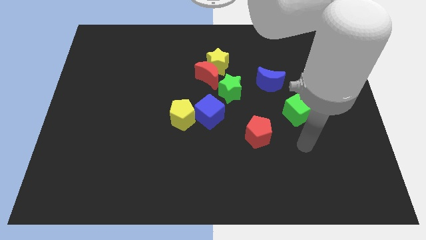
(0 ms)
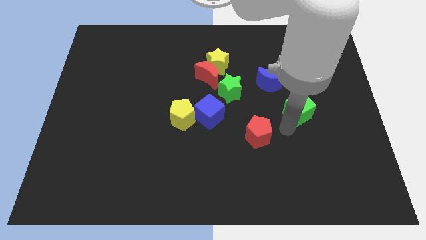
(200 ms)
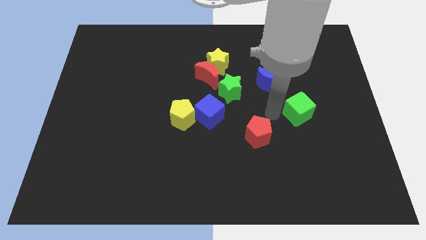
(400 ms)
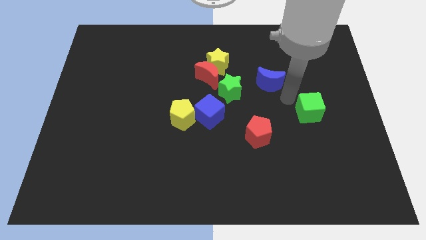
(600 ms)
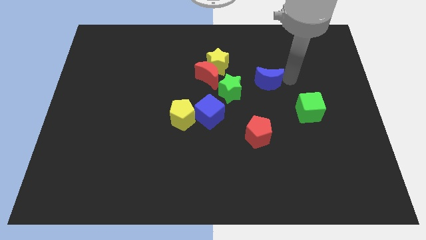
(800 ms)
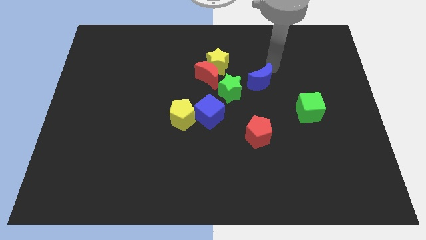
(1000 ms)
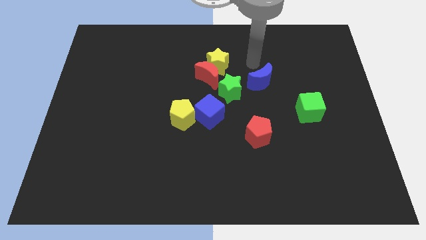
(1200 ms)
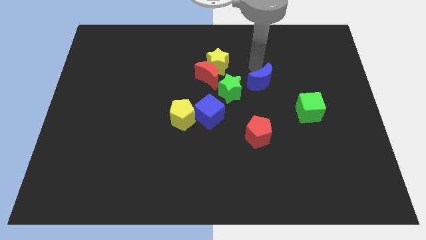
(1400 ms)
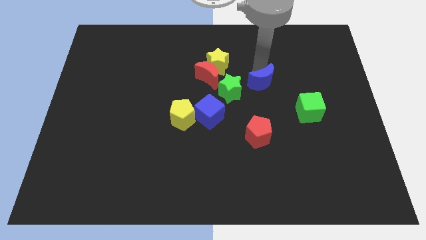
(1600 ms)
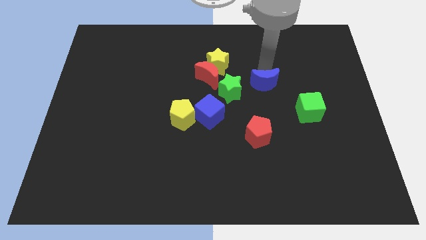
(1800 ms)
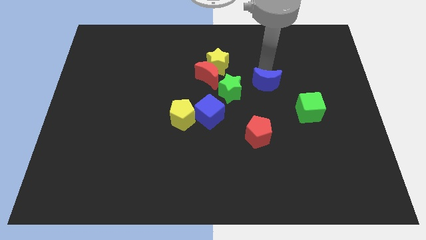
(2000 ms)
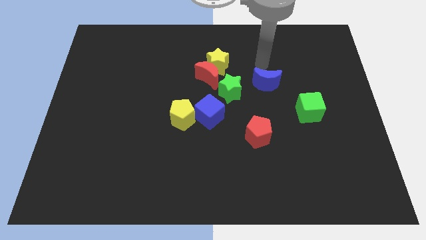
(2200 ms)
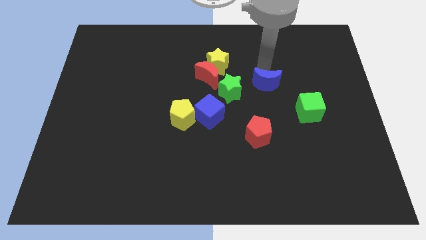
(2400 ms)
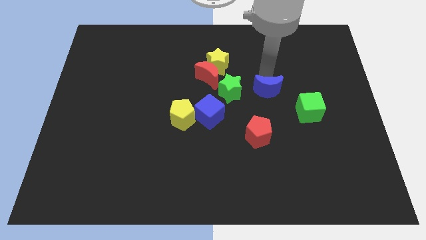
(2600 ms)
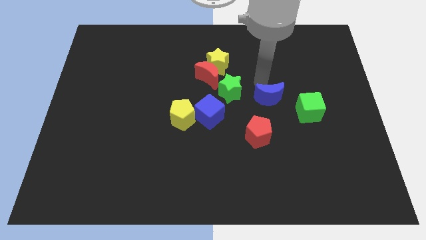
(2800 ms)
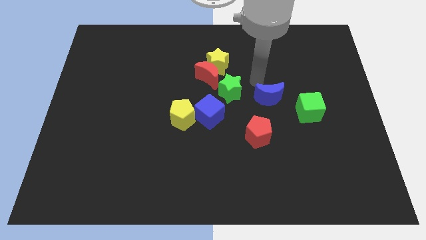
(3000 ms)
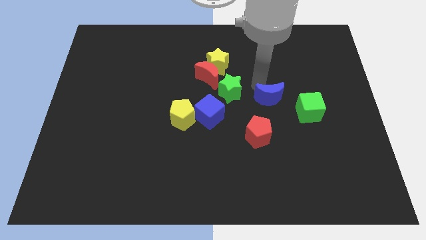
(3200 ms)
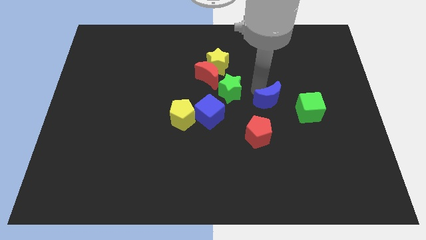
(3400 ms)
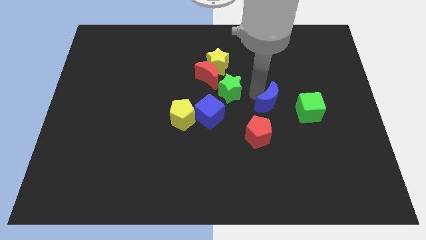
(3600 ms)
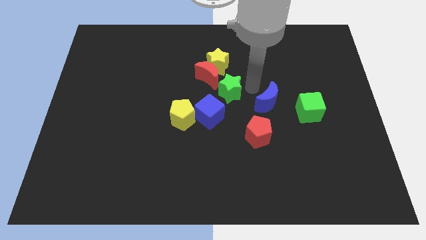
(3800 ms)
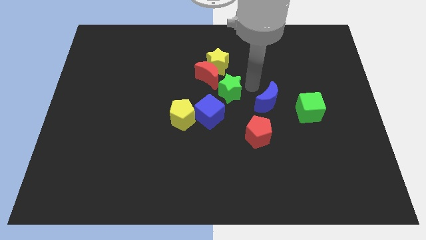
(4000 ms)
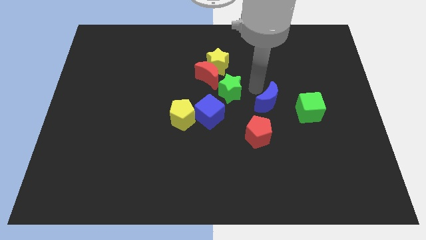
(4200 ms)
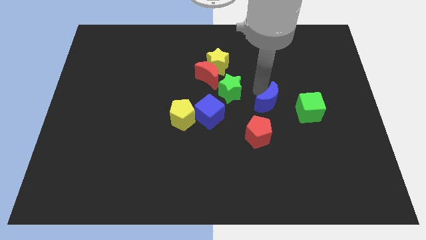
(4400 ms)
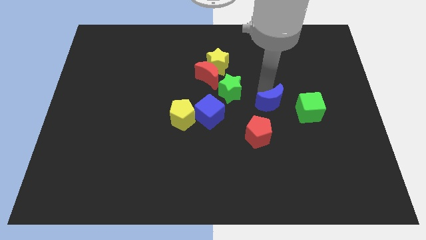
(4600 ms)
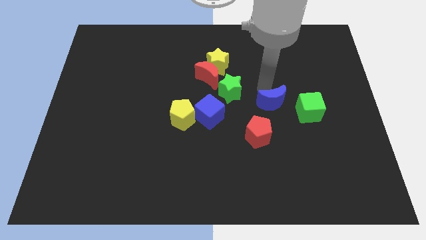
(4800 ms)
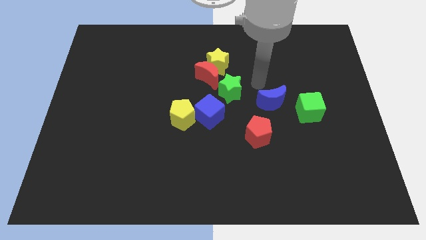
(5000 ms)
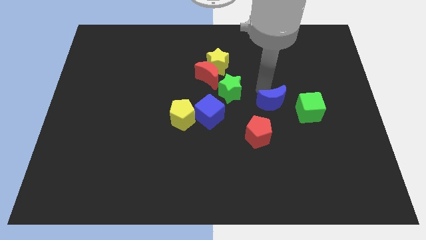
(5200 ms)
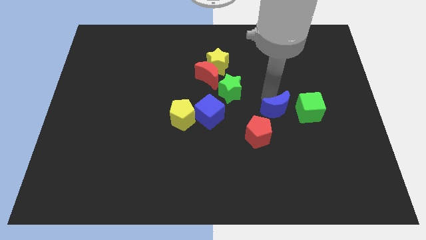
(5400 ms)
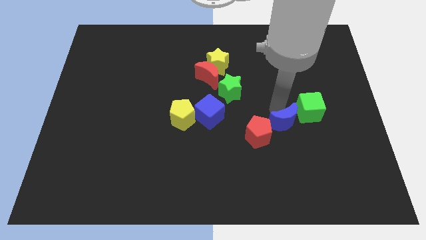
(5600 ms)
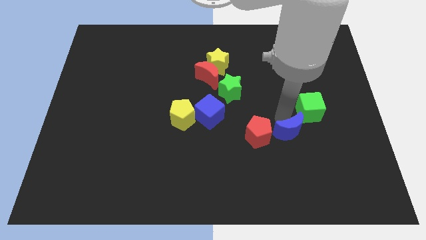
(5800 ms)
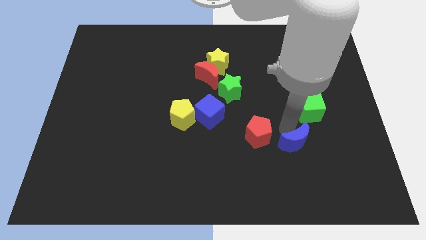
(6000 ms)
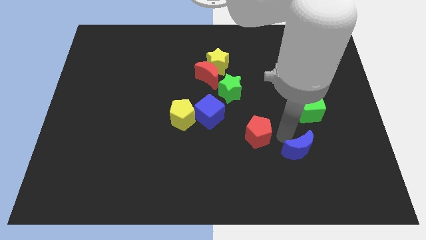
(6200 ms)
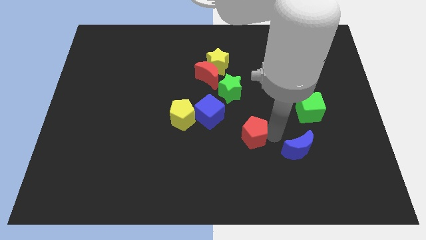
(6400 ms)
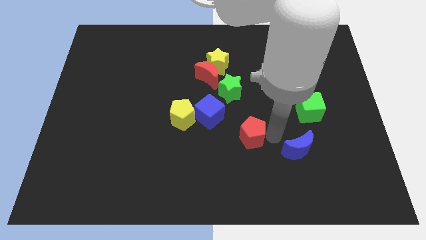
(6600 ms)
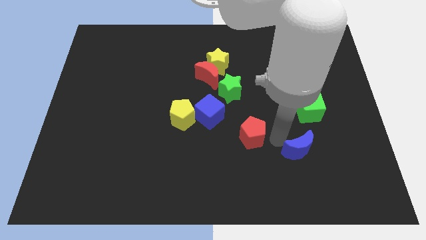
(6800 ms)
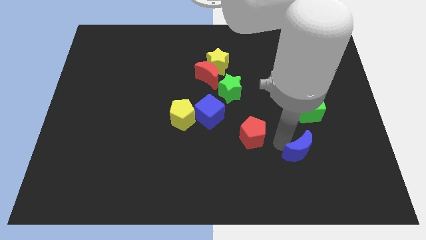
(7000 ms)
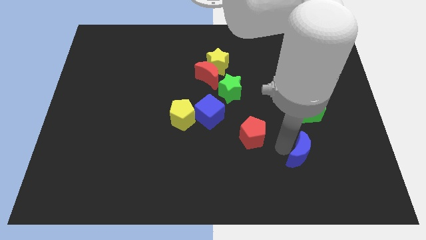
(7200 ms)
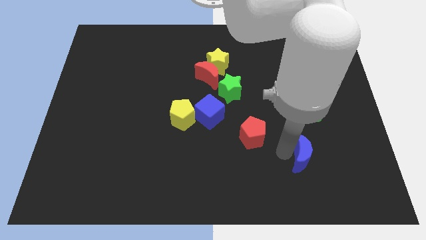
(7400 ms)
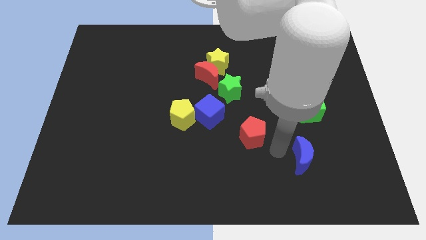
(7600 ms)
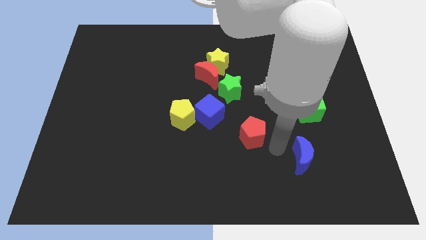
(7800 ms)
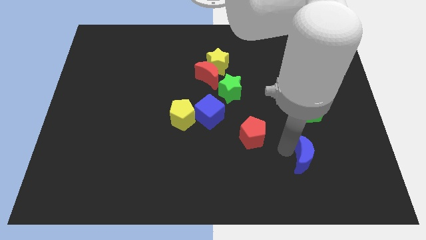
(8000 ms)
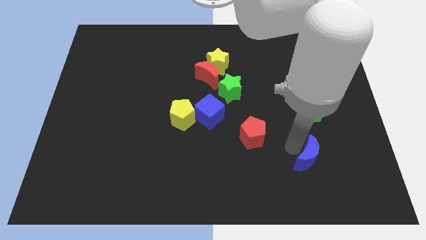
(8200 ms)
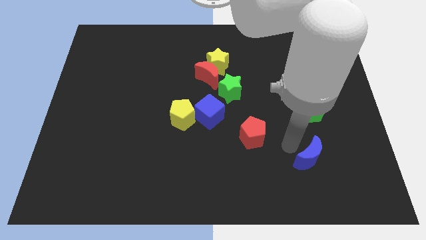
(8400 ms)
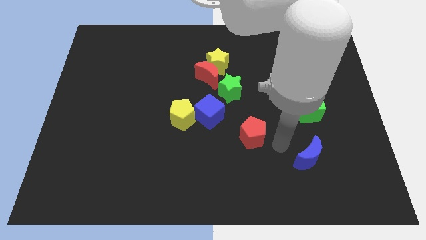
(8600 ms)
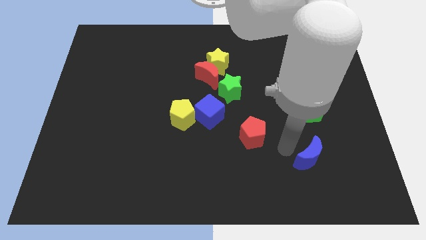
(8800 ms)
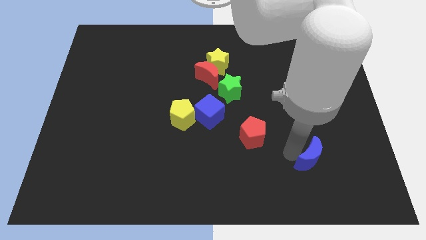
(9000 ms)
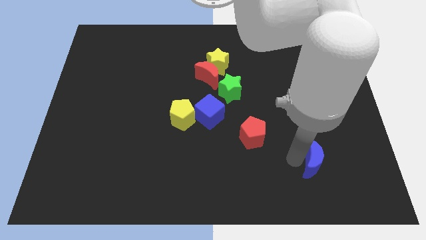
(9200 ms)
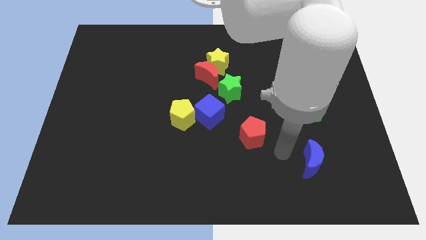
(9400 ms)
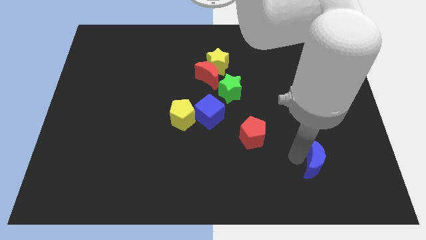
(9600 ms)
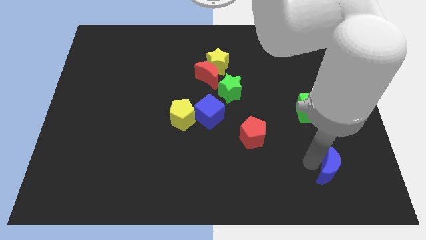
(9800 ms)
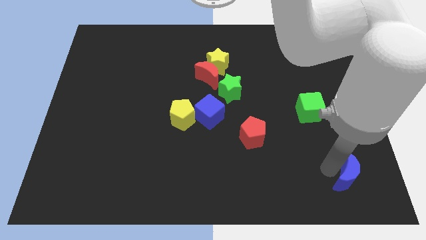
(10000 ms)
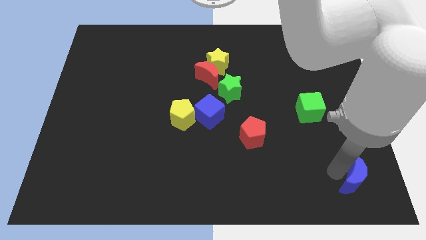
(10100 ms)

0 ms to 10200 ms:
push the blue moon to the bottom right corner

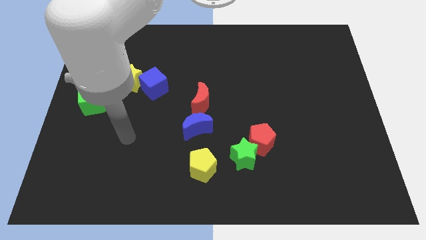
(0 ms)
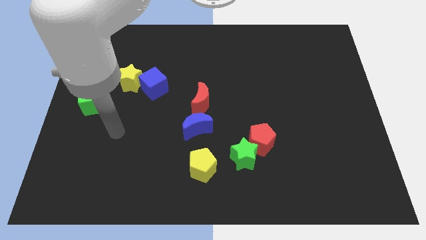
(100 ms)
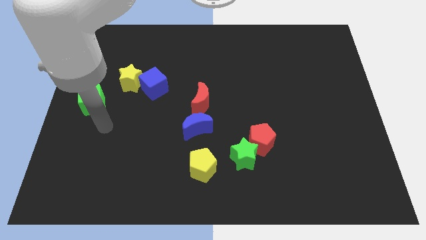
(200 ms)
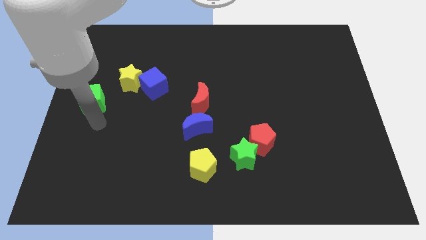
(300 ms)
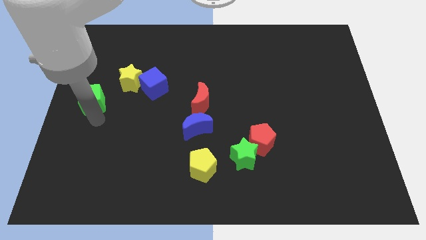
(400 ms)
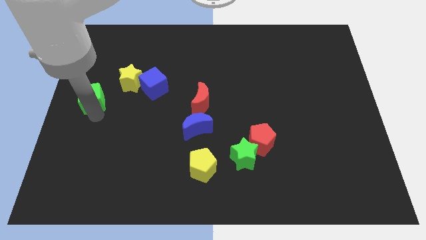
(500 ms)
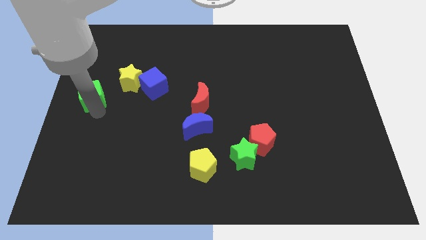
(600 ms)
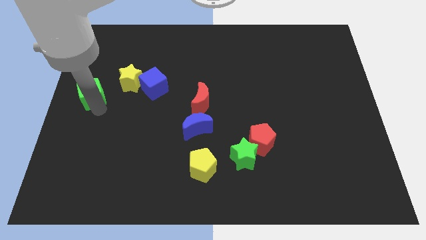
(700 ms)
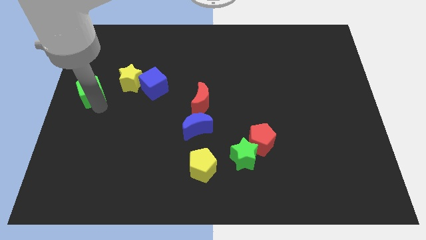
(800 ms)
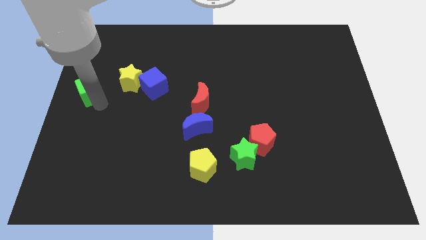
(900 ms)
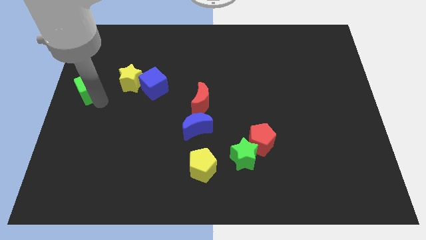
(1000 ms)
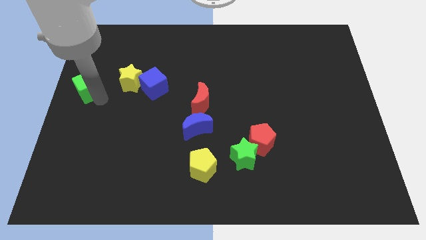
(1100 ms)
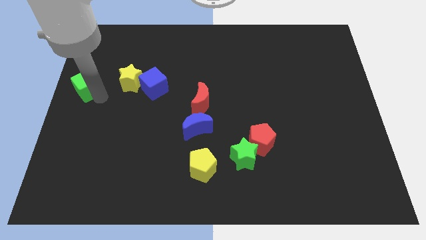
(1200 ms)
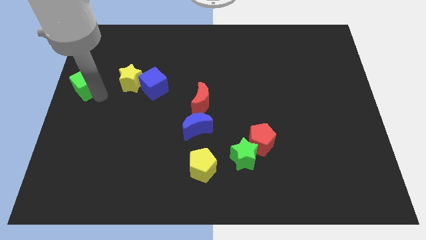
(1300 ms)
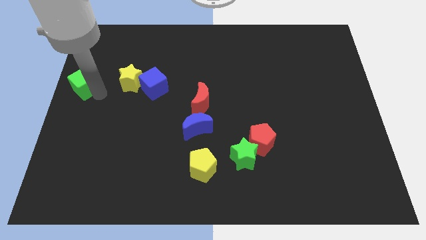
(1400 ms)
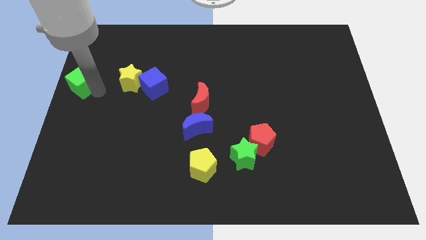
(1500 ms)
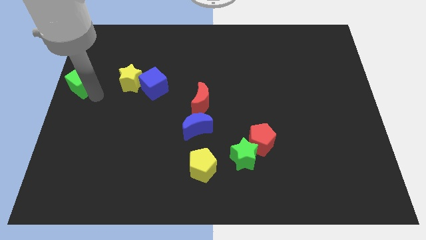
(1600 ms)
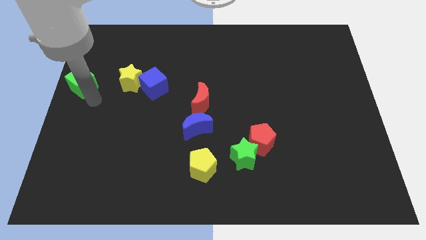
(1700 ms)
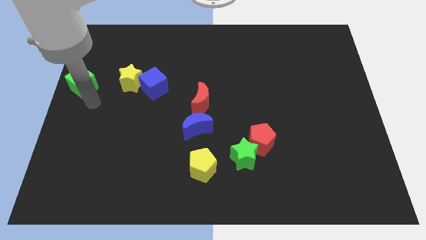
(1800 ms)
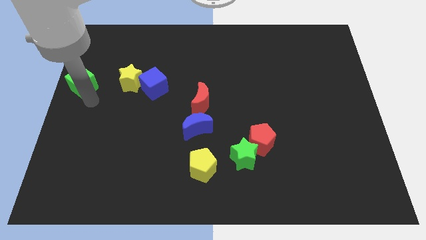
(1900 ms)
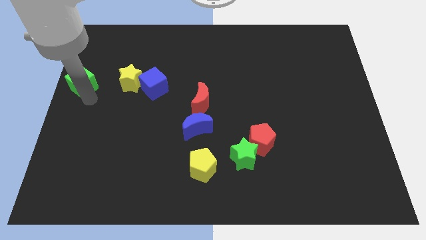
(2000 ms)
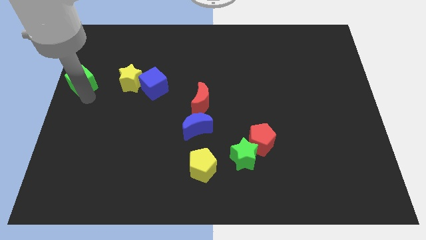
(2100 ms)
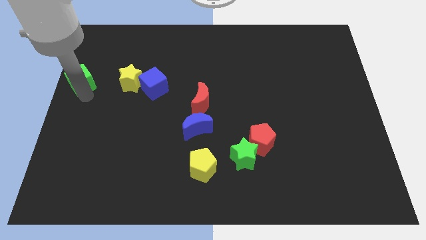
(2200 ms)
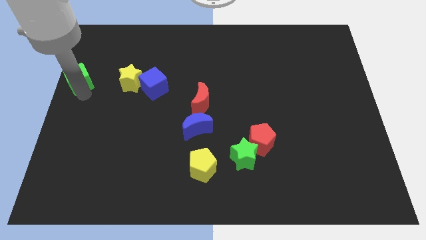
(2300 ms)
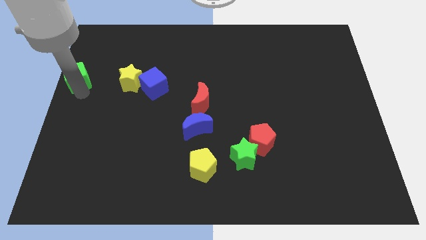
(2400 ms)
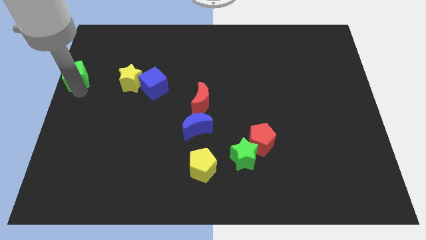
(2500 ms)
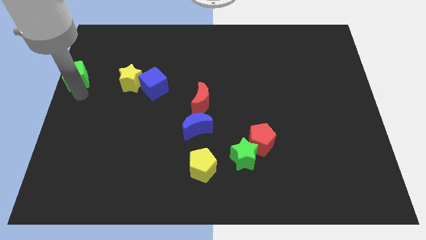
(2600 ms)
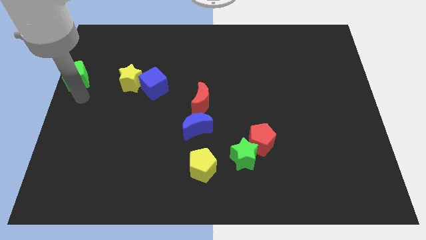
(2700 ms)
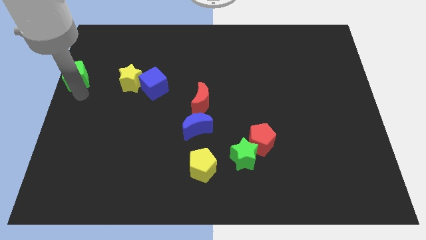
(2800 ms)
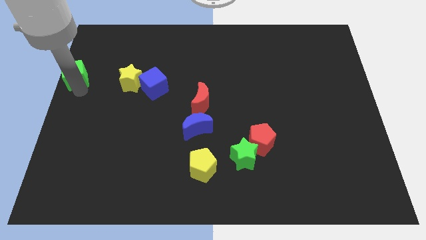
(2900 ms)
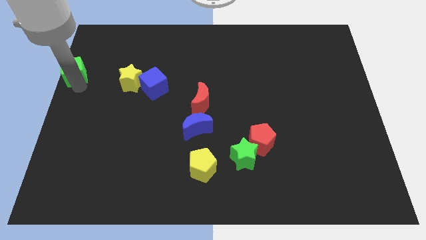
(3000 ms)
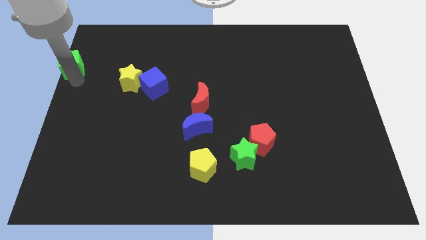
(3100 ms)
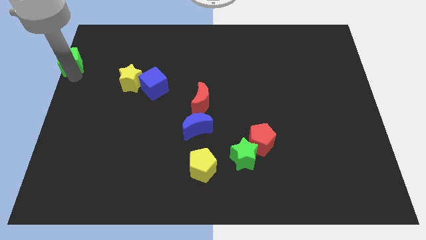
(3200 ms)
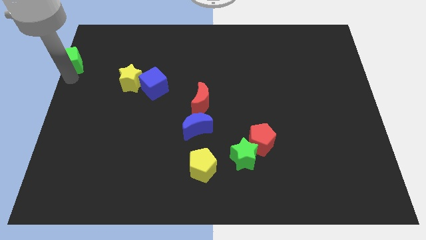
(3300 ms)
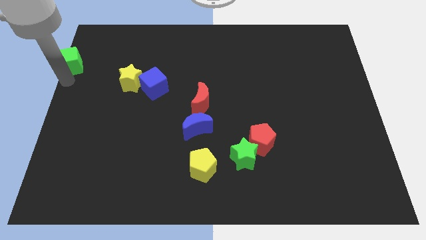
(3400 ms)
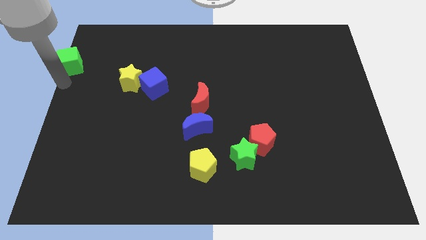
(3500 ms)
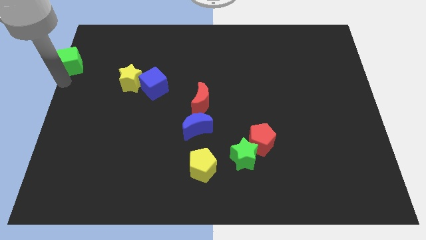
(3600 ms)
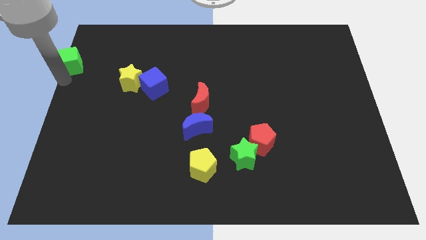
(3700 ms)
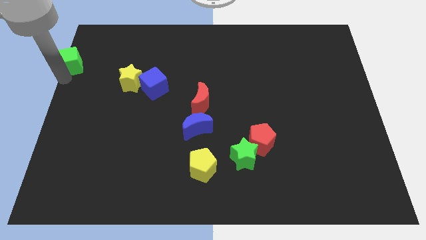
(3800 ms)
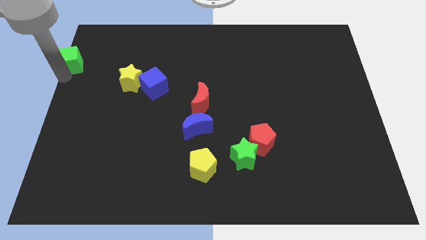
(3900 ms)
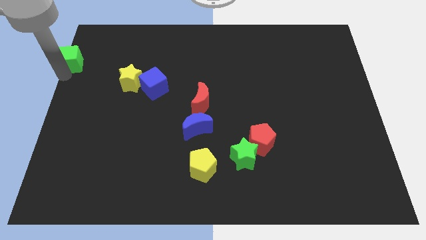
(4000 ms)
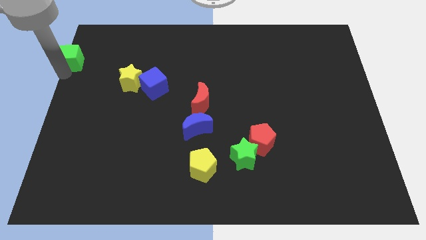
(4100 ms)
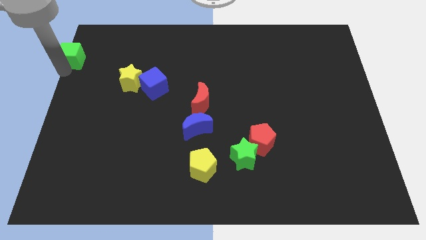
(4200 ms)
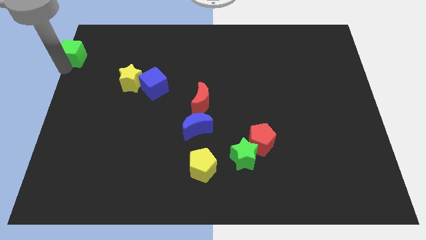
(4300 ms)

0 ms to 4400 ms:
push the green cube to the top left corner
